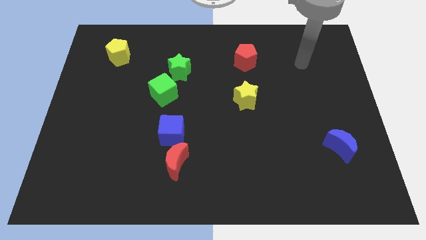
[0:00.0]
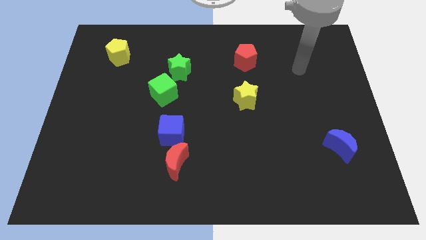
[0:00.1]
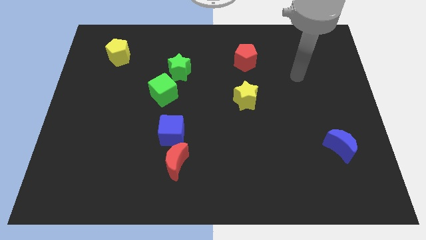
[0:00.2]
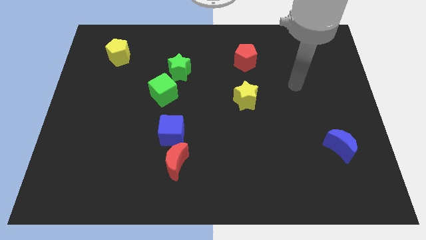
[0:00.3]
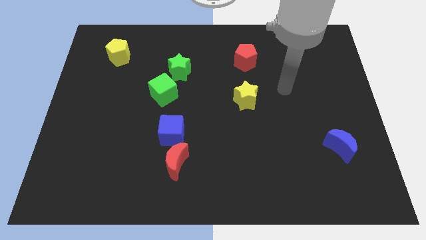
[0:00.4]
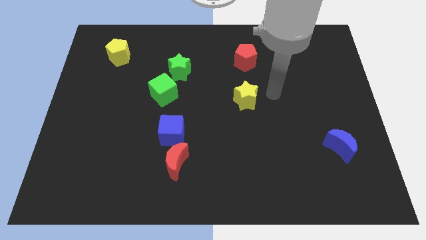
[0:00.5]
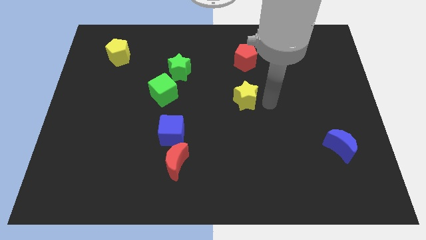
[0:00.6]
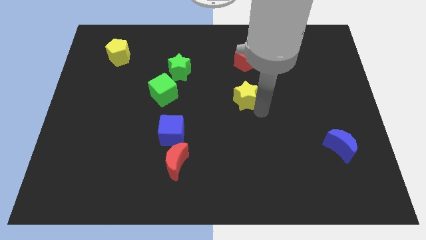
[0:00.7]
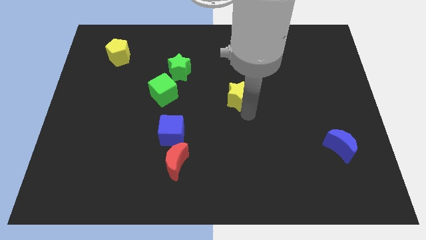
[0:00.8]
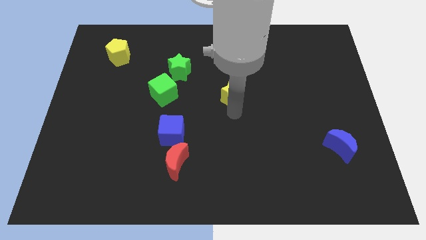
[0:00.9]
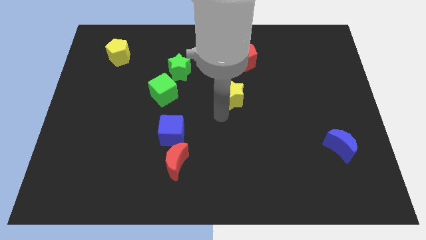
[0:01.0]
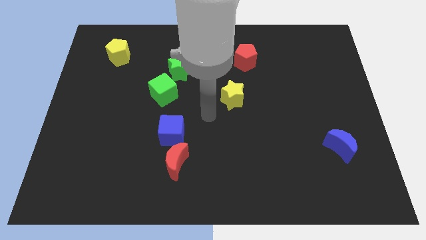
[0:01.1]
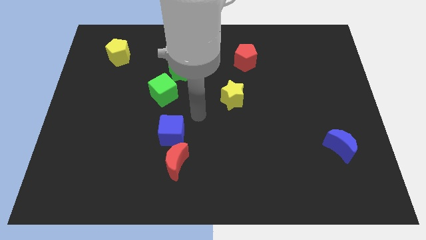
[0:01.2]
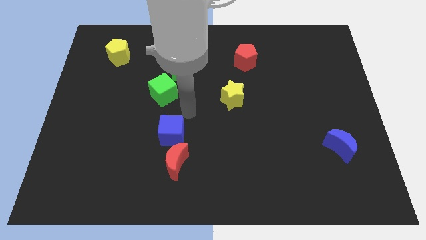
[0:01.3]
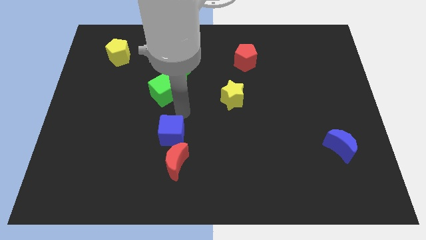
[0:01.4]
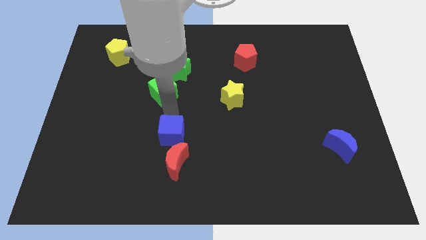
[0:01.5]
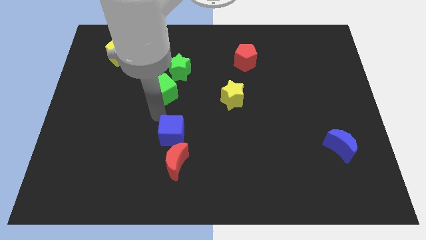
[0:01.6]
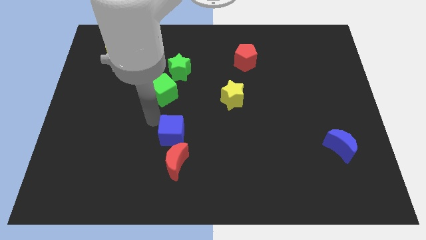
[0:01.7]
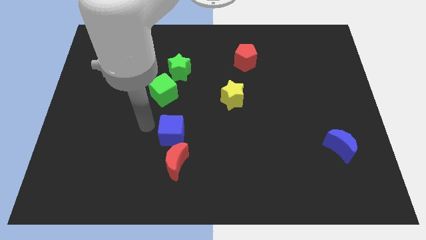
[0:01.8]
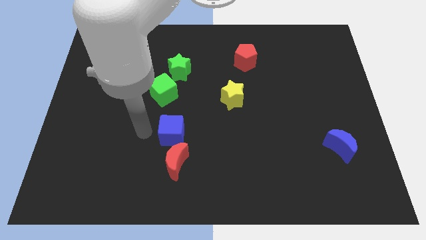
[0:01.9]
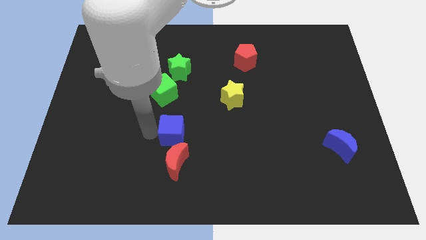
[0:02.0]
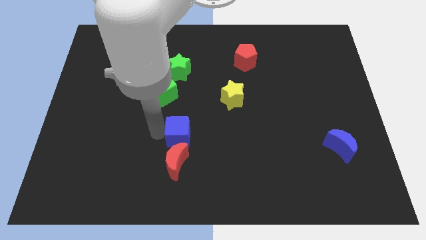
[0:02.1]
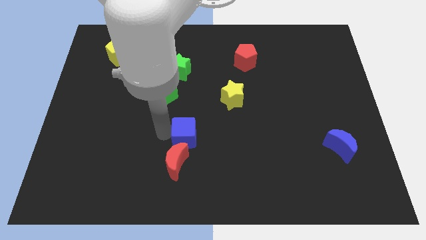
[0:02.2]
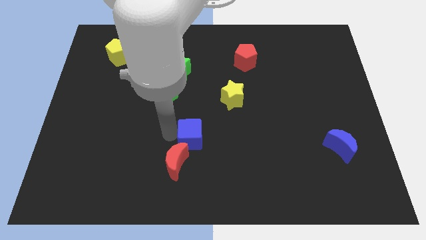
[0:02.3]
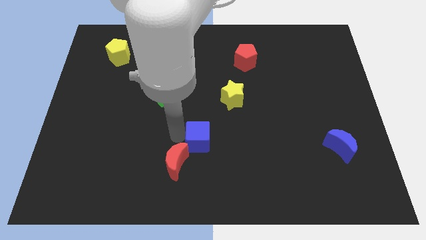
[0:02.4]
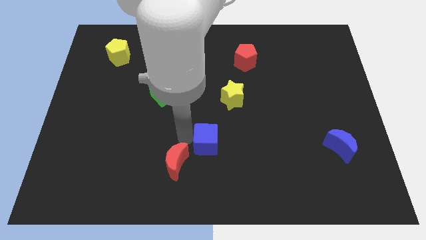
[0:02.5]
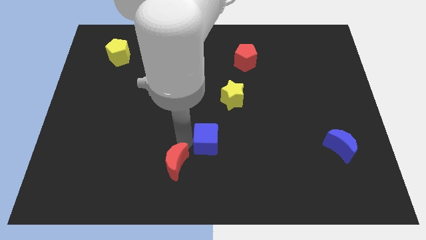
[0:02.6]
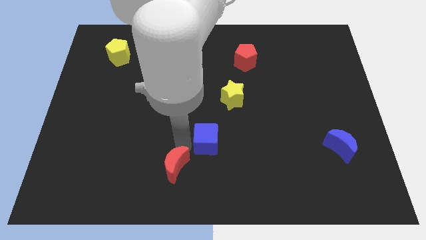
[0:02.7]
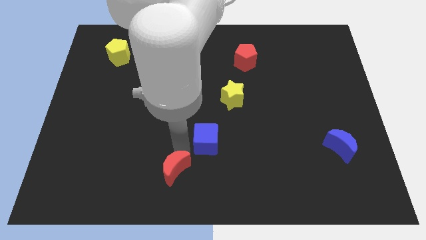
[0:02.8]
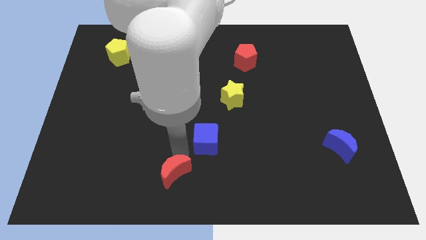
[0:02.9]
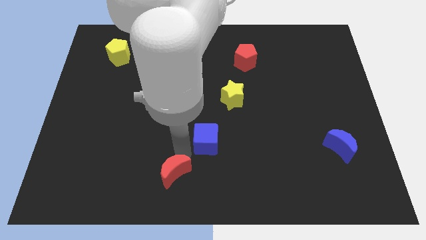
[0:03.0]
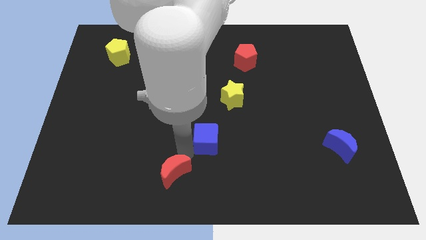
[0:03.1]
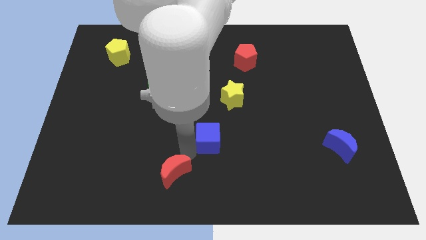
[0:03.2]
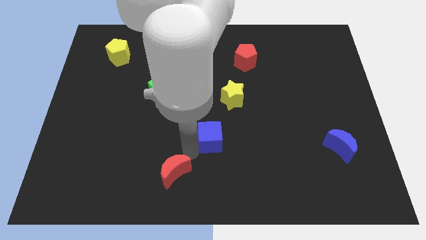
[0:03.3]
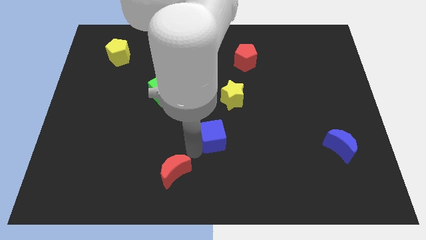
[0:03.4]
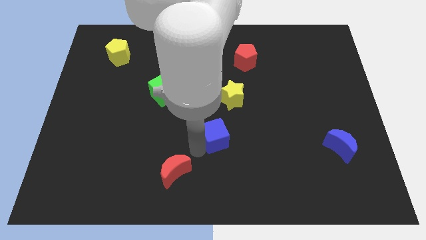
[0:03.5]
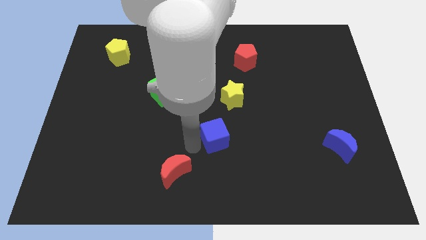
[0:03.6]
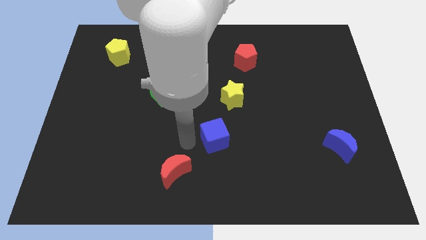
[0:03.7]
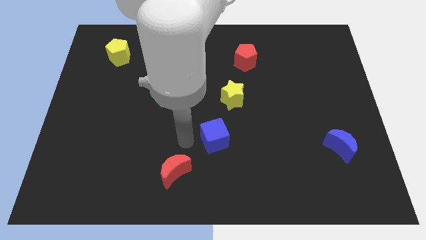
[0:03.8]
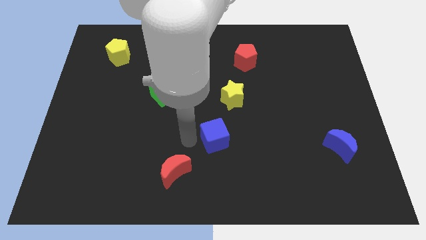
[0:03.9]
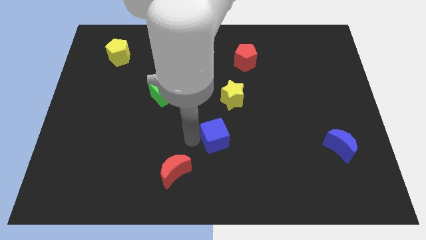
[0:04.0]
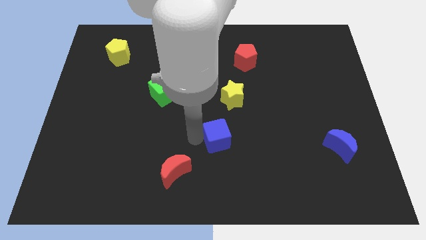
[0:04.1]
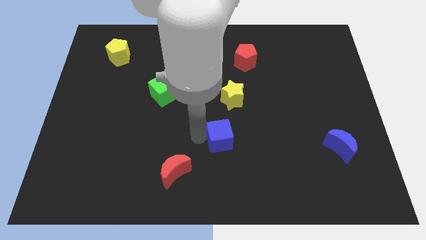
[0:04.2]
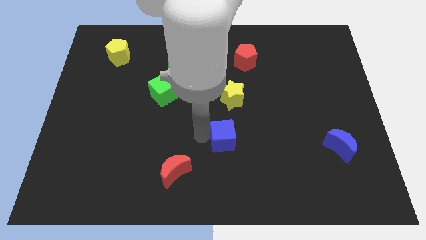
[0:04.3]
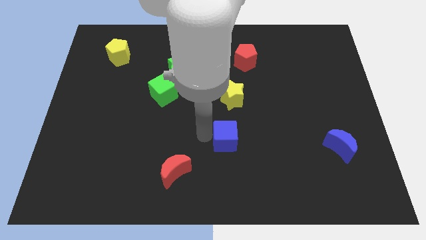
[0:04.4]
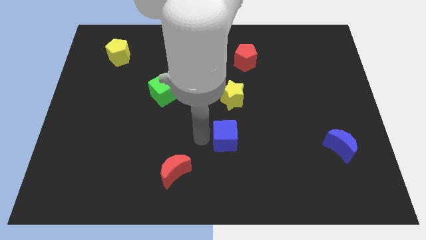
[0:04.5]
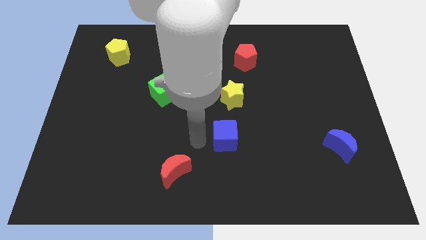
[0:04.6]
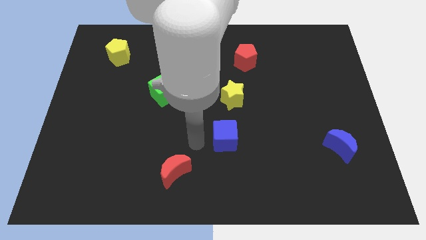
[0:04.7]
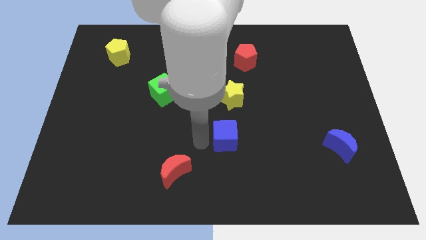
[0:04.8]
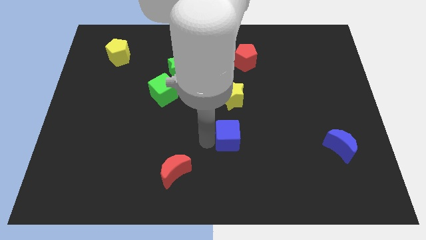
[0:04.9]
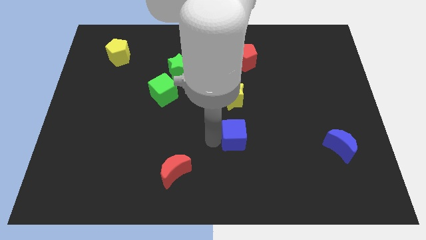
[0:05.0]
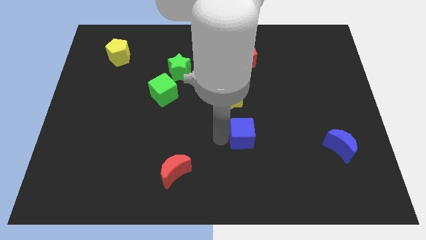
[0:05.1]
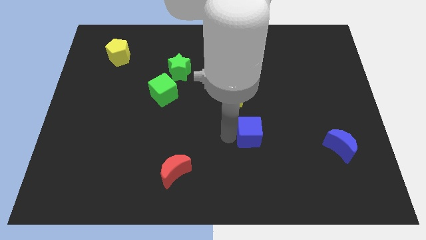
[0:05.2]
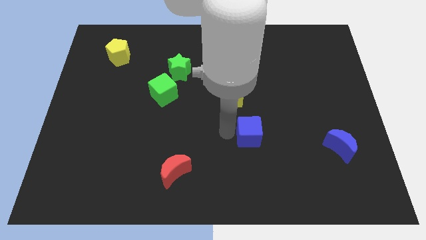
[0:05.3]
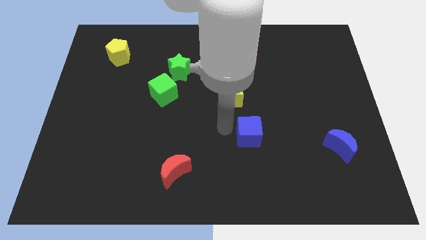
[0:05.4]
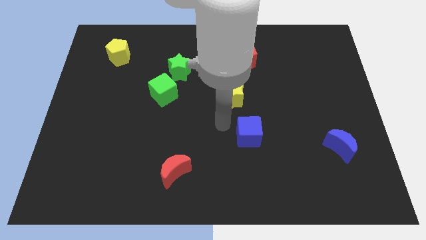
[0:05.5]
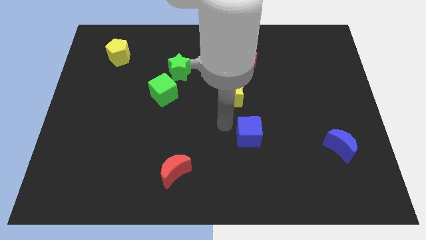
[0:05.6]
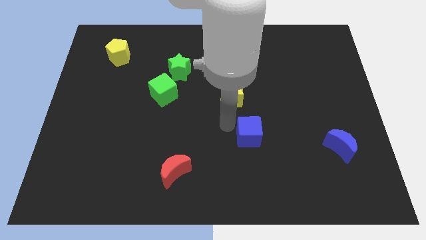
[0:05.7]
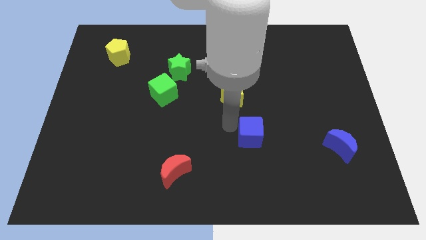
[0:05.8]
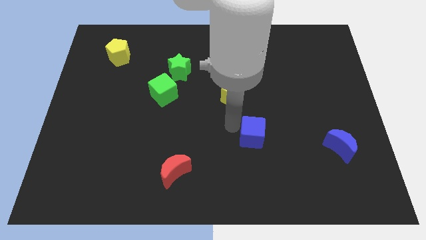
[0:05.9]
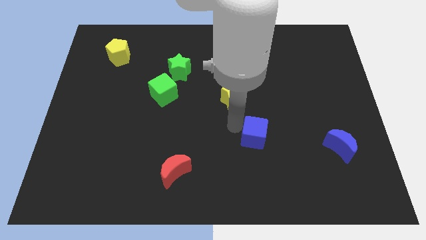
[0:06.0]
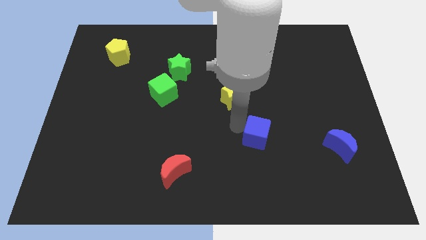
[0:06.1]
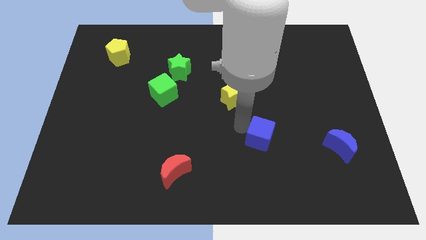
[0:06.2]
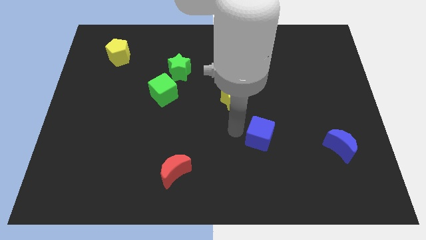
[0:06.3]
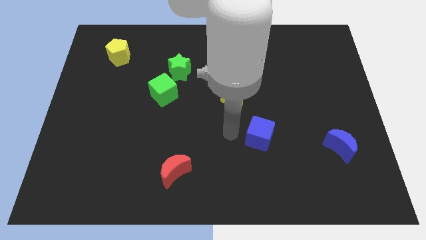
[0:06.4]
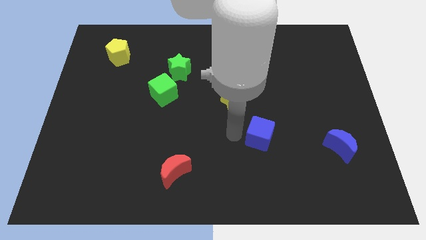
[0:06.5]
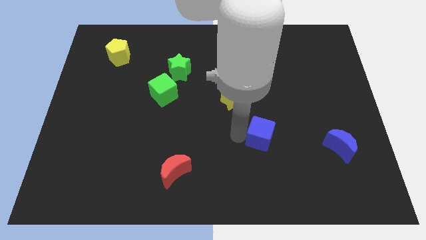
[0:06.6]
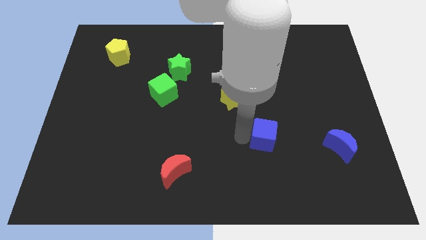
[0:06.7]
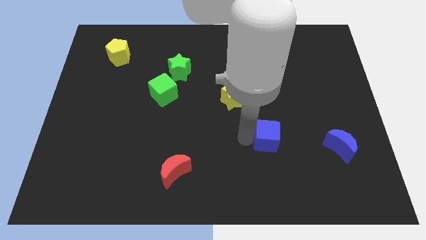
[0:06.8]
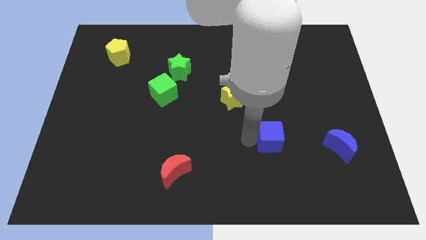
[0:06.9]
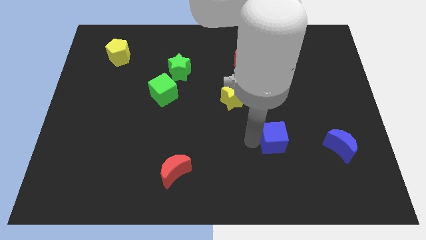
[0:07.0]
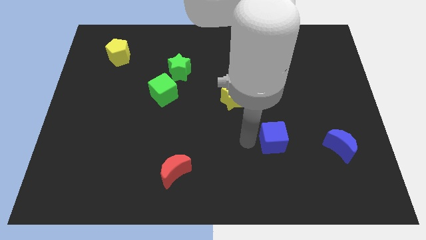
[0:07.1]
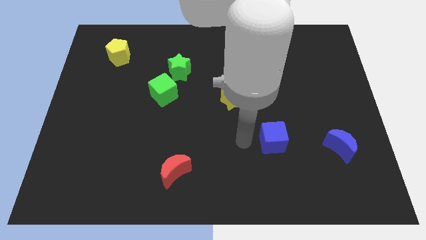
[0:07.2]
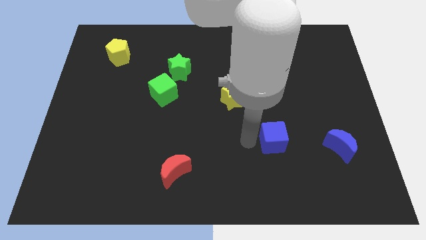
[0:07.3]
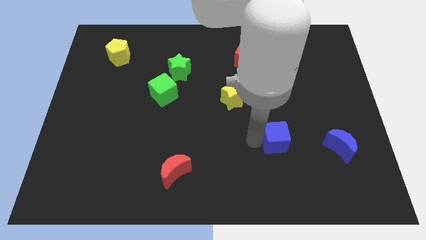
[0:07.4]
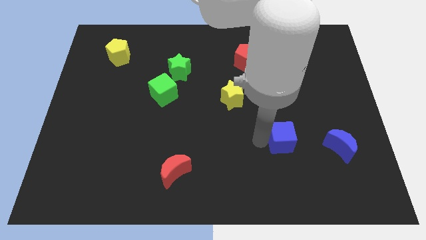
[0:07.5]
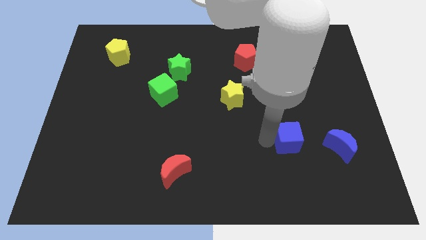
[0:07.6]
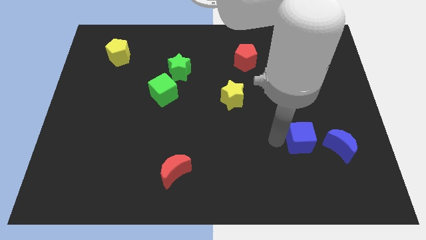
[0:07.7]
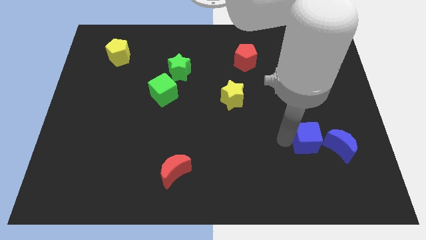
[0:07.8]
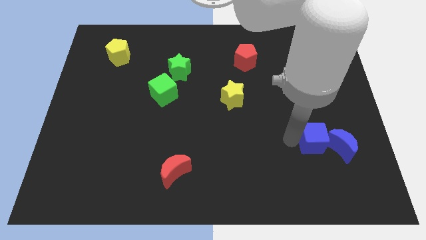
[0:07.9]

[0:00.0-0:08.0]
put the blue cube to the blue moon
